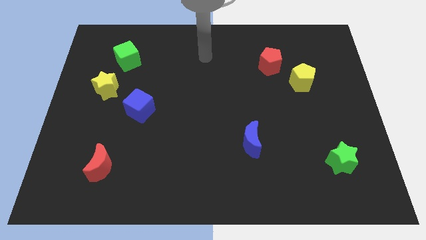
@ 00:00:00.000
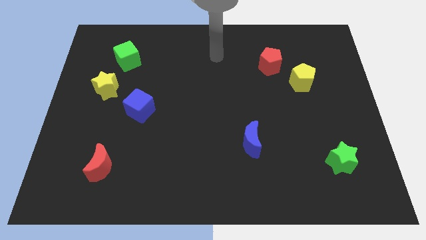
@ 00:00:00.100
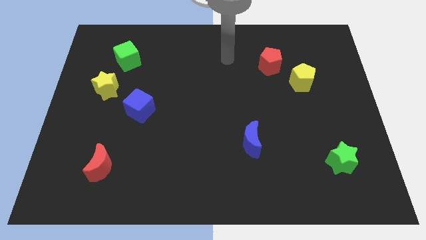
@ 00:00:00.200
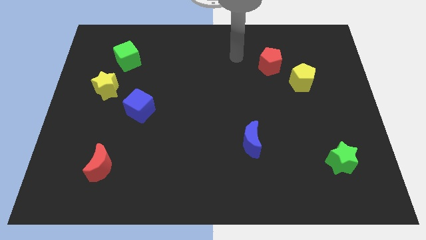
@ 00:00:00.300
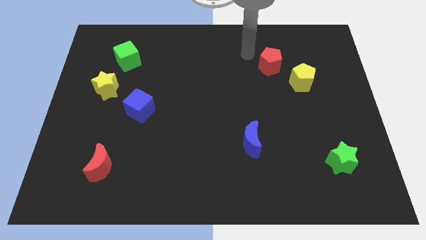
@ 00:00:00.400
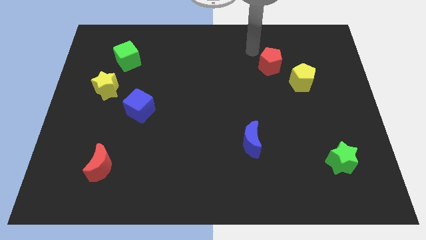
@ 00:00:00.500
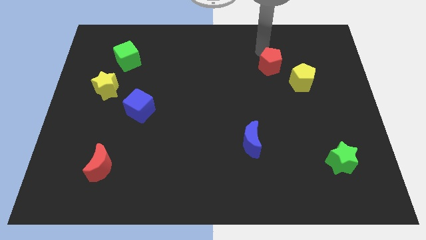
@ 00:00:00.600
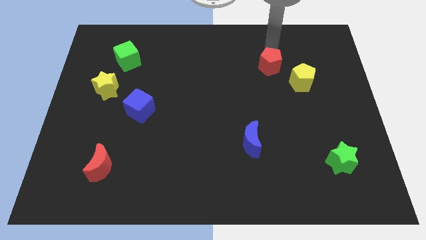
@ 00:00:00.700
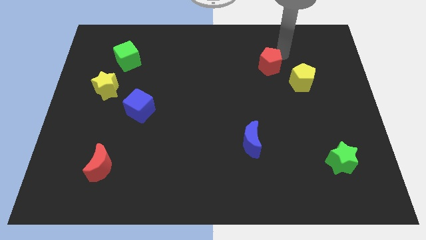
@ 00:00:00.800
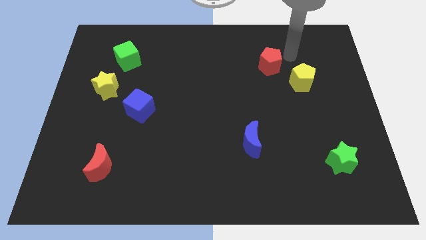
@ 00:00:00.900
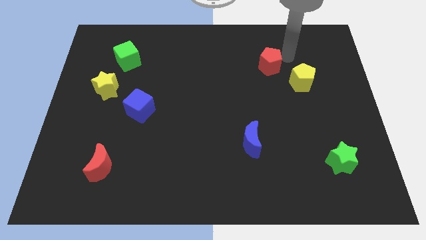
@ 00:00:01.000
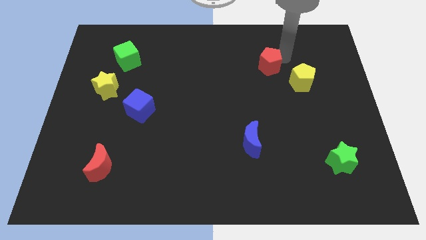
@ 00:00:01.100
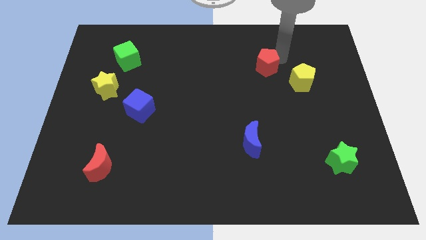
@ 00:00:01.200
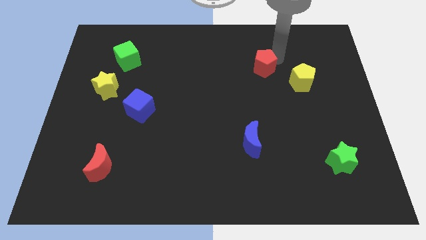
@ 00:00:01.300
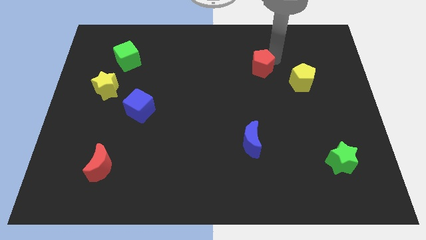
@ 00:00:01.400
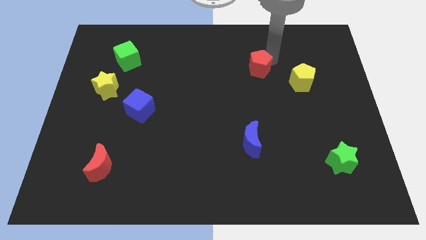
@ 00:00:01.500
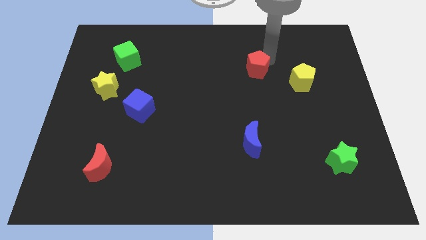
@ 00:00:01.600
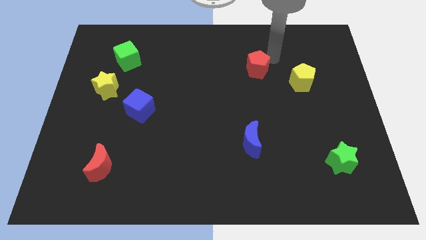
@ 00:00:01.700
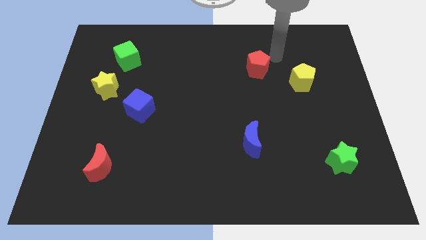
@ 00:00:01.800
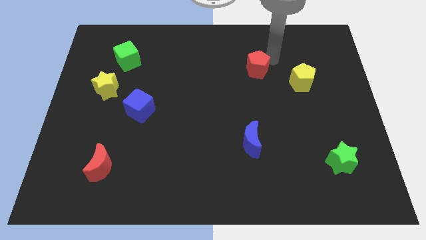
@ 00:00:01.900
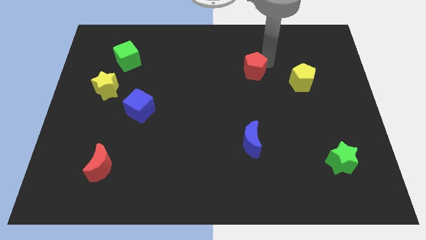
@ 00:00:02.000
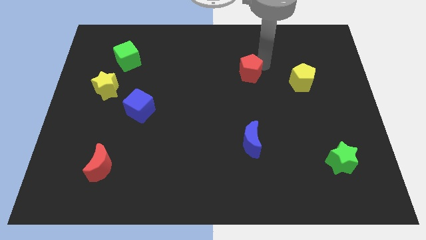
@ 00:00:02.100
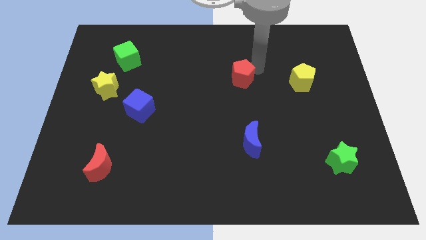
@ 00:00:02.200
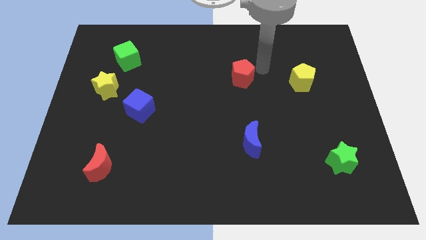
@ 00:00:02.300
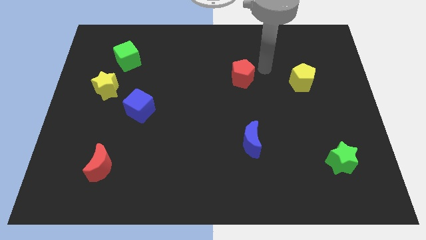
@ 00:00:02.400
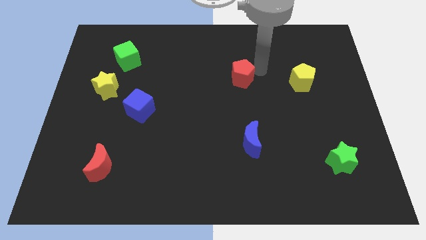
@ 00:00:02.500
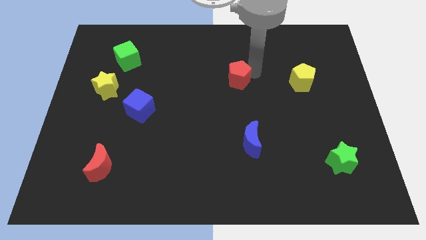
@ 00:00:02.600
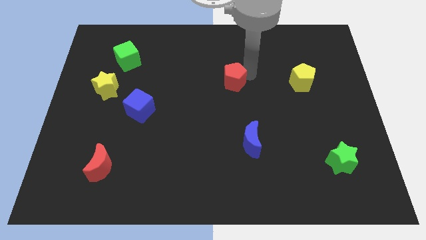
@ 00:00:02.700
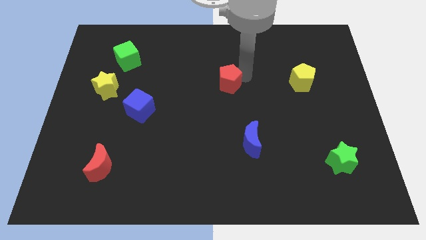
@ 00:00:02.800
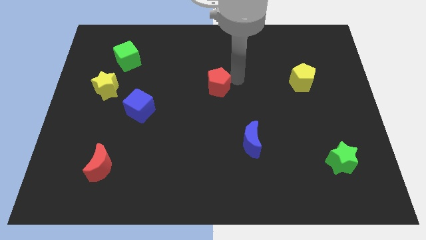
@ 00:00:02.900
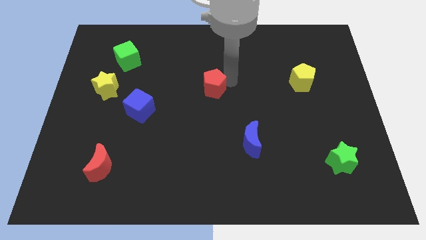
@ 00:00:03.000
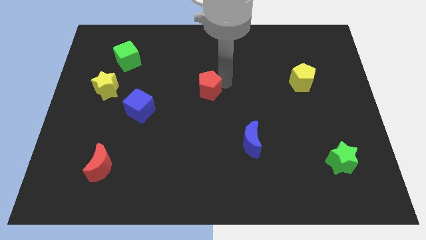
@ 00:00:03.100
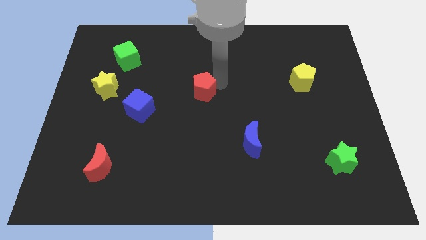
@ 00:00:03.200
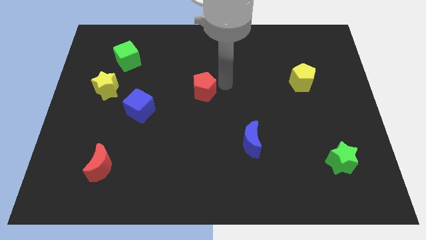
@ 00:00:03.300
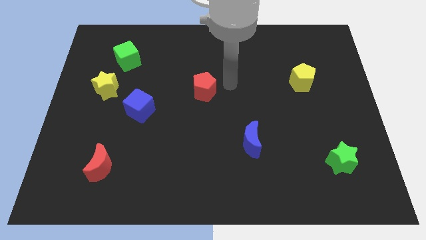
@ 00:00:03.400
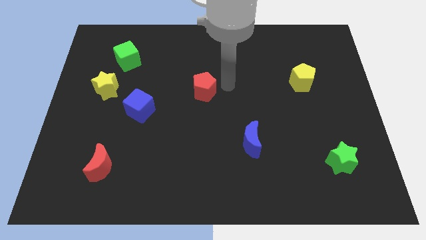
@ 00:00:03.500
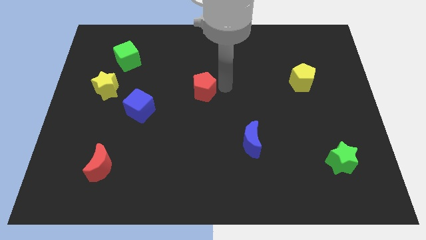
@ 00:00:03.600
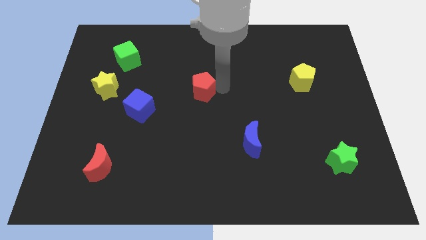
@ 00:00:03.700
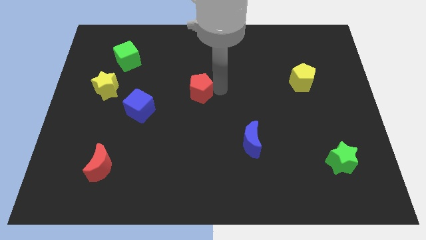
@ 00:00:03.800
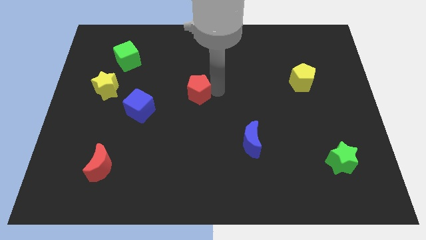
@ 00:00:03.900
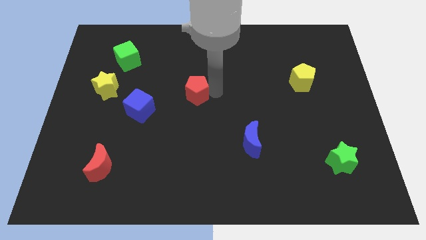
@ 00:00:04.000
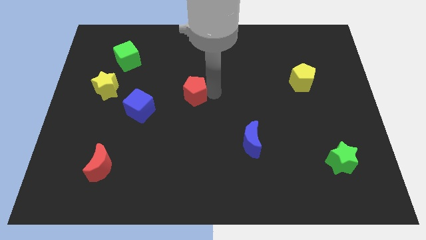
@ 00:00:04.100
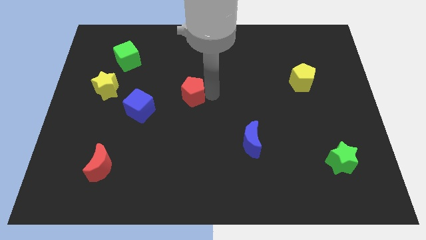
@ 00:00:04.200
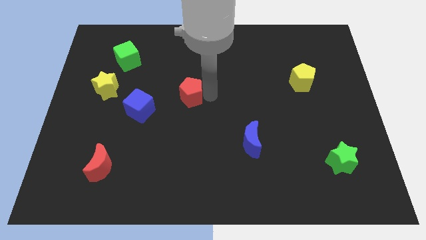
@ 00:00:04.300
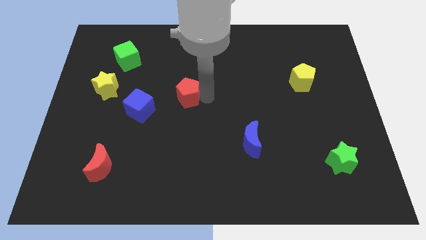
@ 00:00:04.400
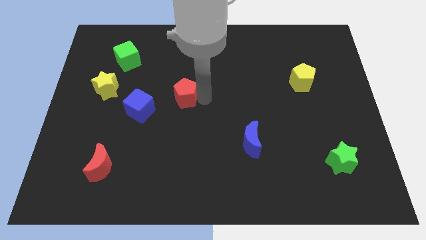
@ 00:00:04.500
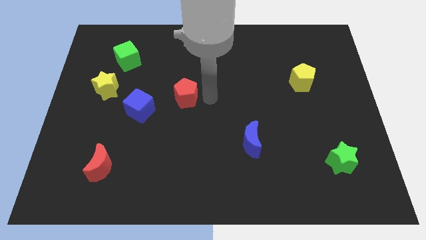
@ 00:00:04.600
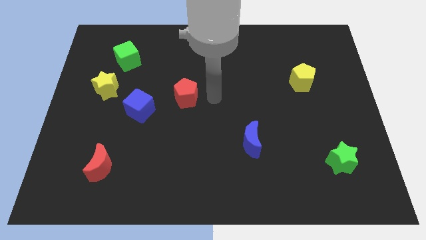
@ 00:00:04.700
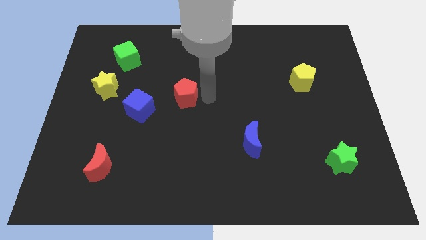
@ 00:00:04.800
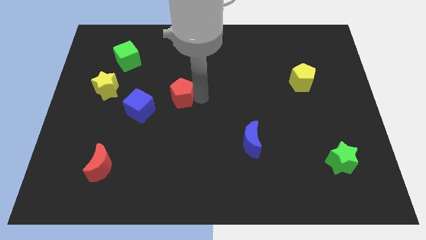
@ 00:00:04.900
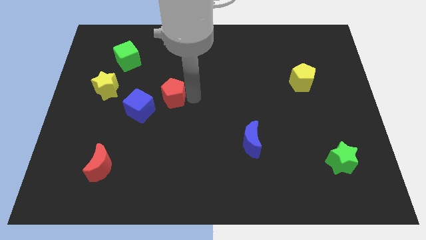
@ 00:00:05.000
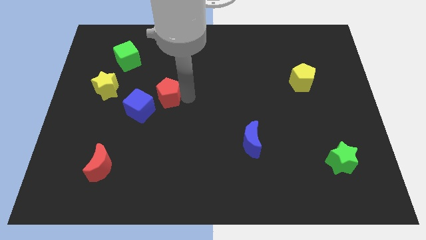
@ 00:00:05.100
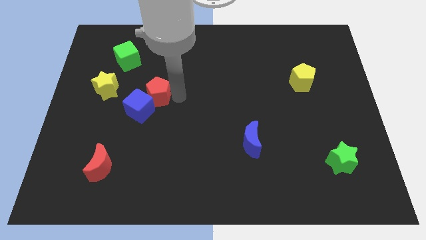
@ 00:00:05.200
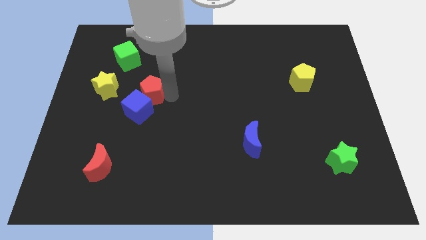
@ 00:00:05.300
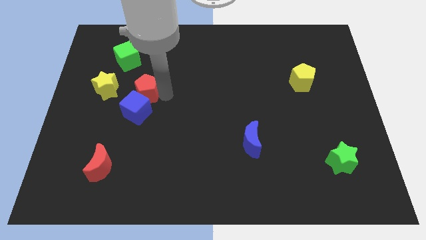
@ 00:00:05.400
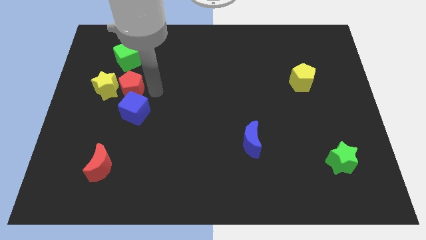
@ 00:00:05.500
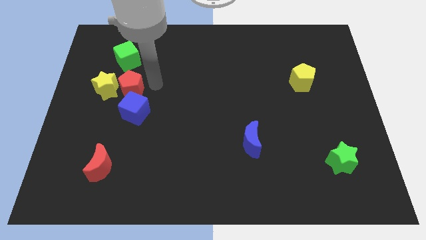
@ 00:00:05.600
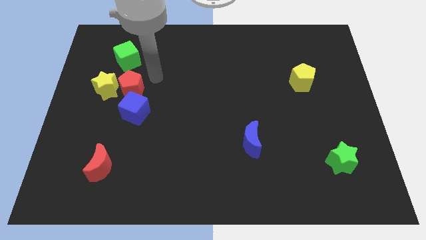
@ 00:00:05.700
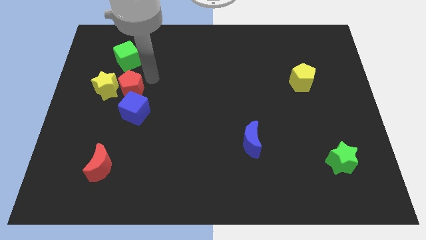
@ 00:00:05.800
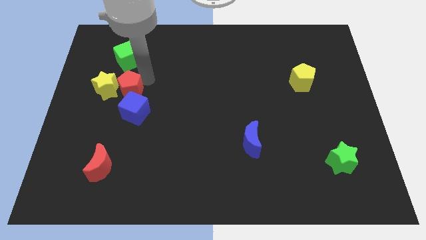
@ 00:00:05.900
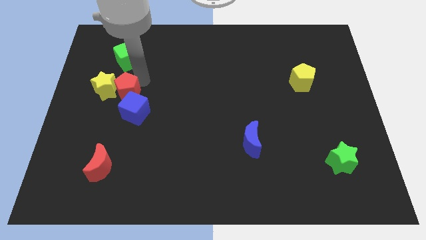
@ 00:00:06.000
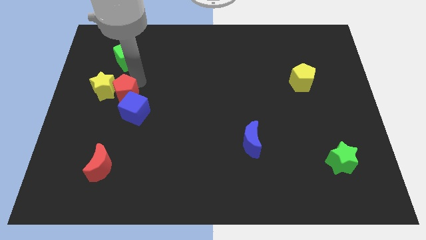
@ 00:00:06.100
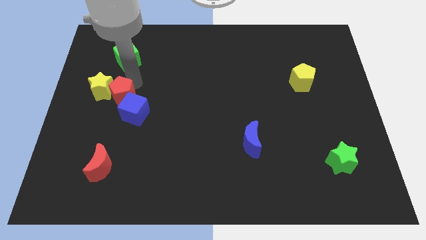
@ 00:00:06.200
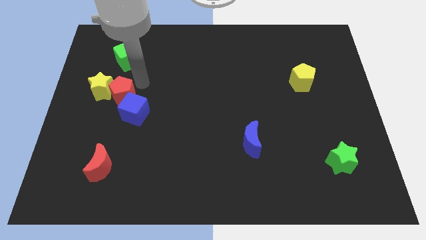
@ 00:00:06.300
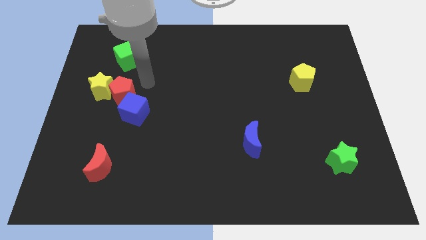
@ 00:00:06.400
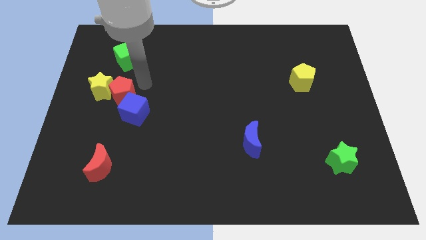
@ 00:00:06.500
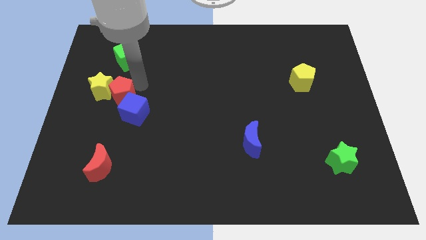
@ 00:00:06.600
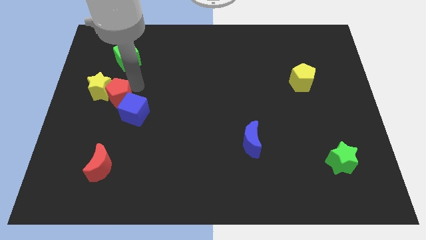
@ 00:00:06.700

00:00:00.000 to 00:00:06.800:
push the red pentagon just left of the blue cube
